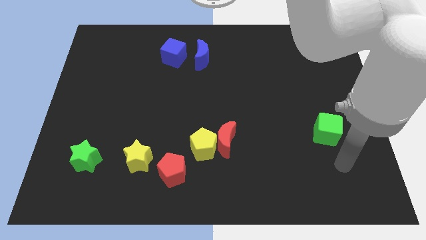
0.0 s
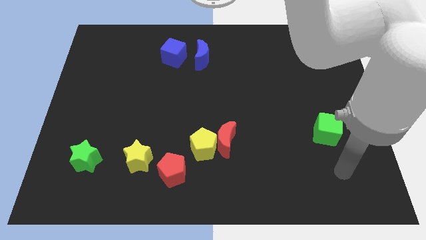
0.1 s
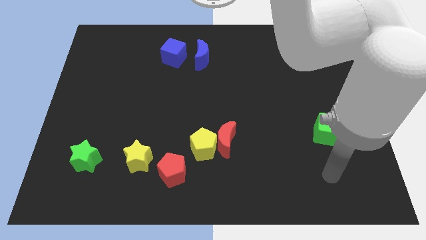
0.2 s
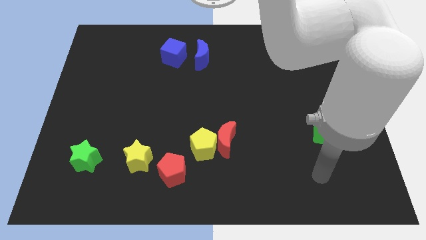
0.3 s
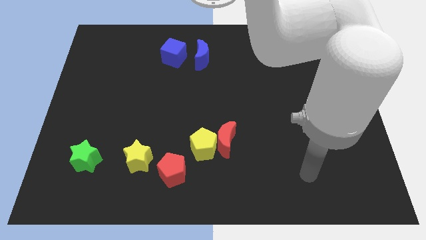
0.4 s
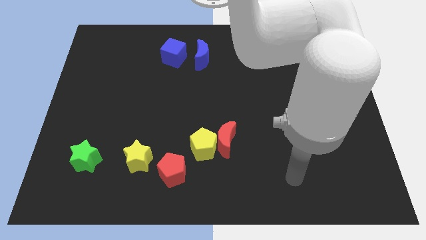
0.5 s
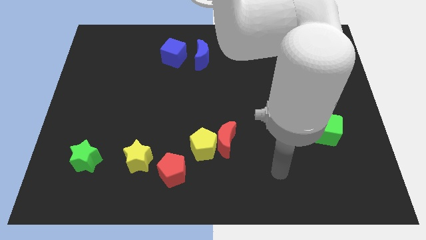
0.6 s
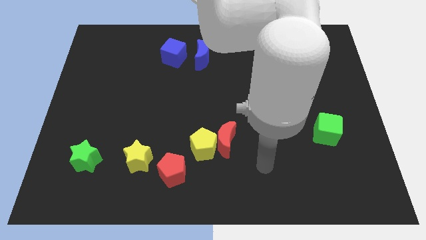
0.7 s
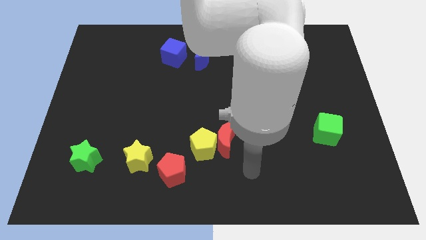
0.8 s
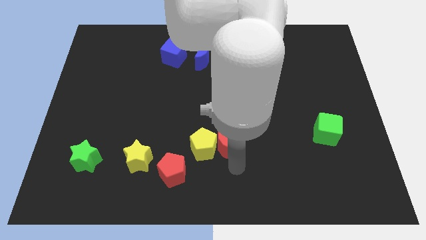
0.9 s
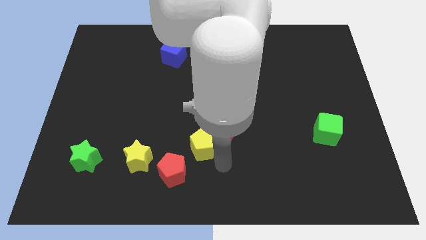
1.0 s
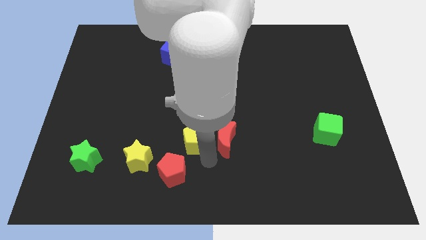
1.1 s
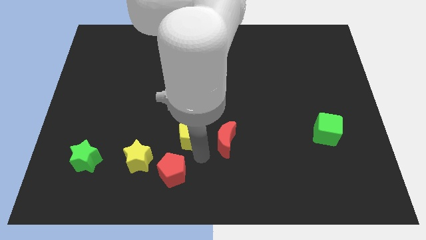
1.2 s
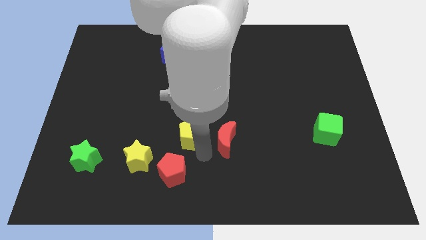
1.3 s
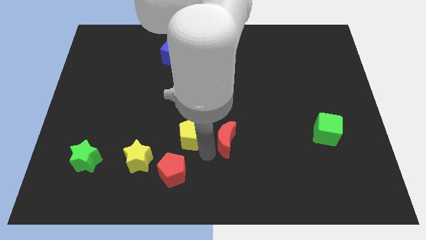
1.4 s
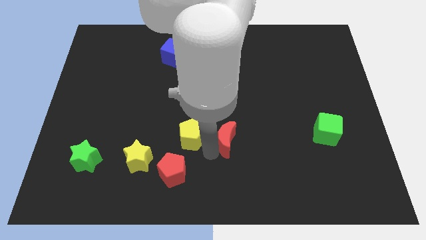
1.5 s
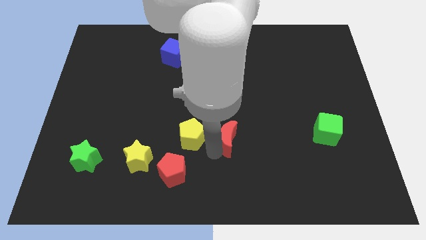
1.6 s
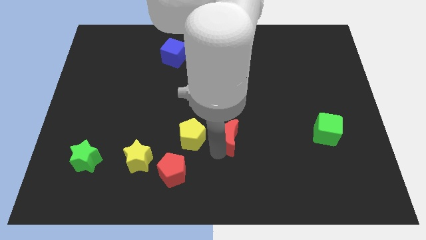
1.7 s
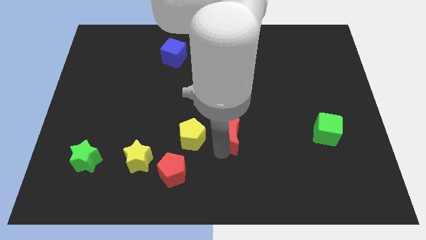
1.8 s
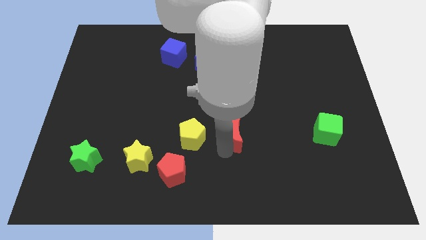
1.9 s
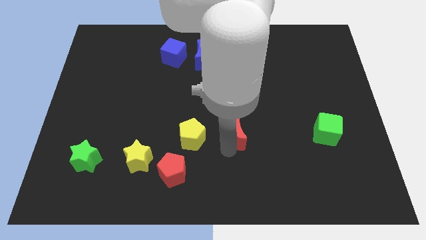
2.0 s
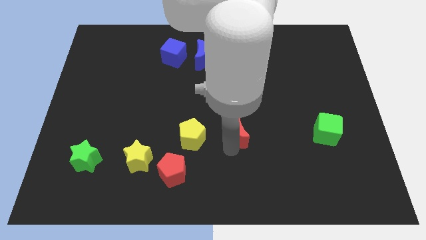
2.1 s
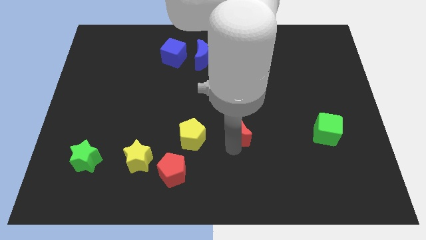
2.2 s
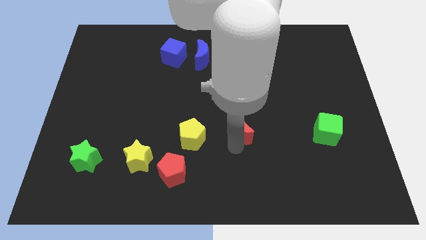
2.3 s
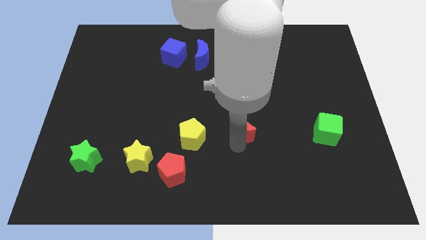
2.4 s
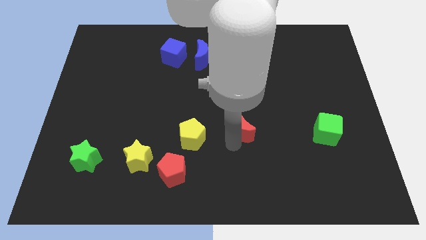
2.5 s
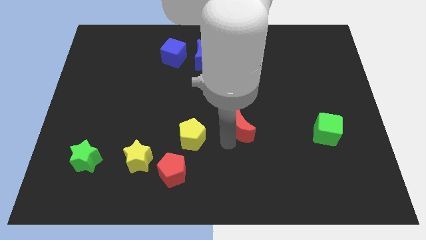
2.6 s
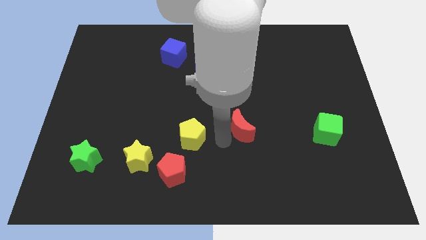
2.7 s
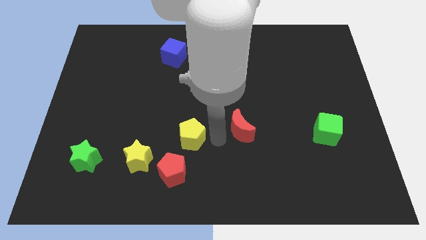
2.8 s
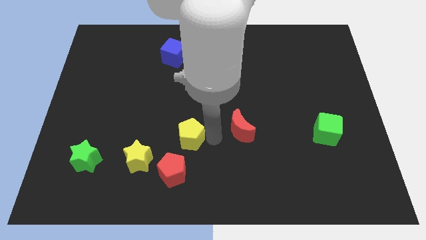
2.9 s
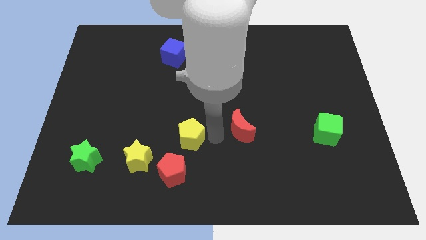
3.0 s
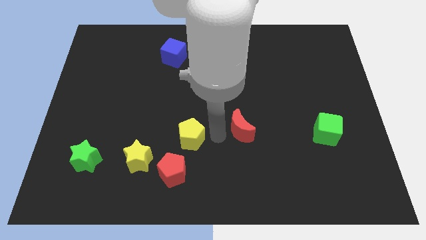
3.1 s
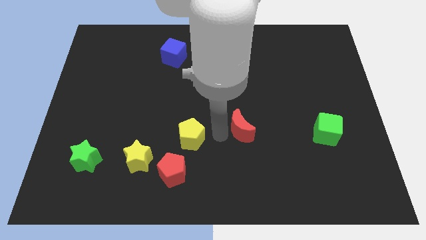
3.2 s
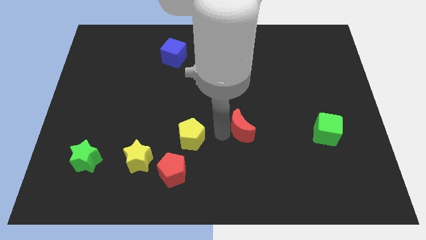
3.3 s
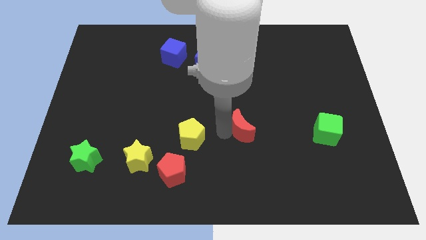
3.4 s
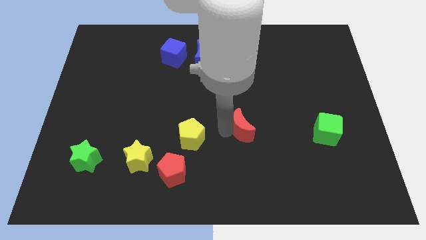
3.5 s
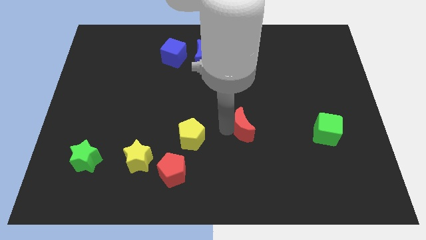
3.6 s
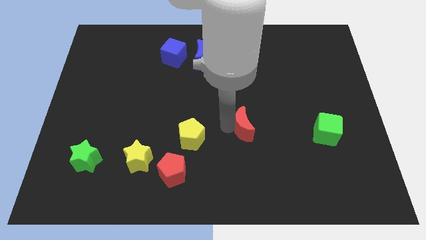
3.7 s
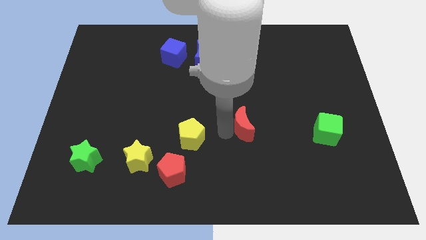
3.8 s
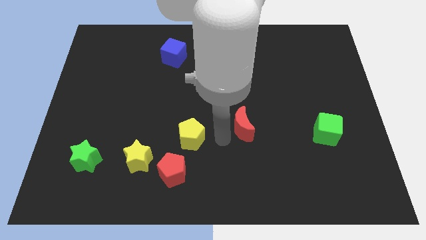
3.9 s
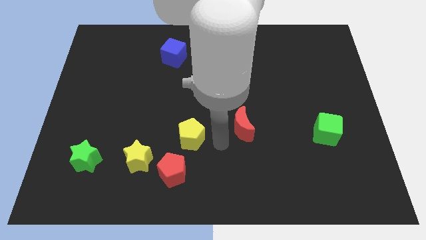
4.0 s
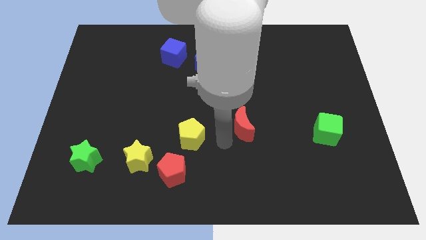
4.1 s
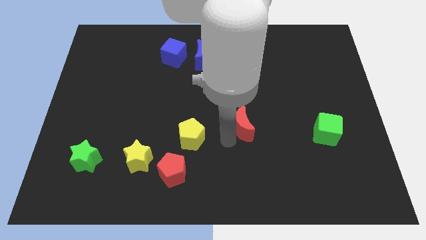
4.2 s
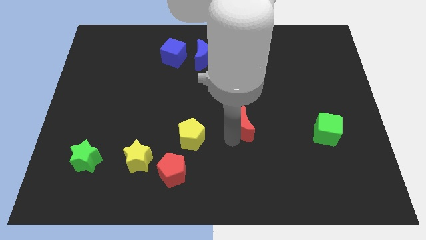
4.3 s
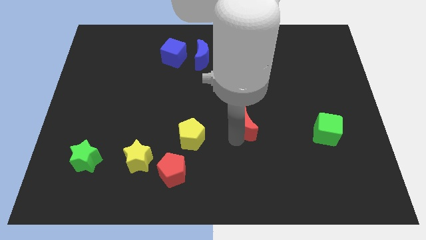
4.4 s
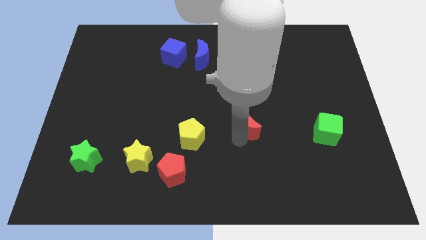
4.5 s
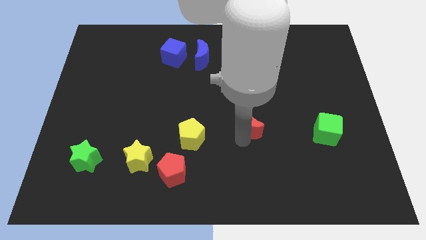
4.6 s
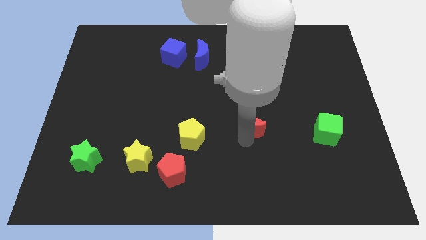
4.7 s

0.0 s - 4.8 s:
push the red moon somewhat diagonally up and right

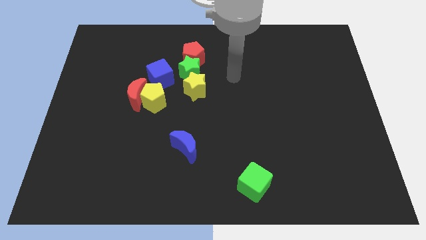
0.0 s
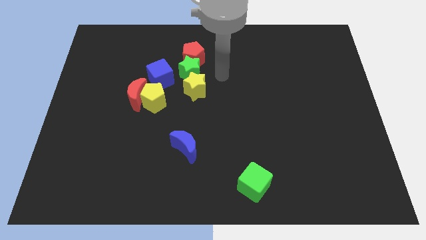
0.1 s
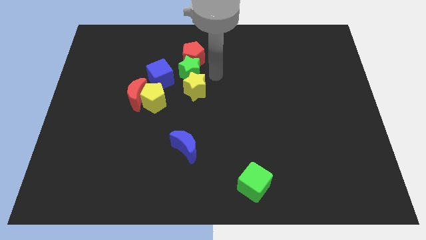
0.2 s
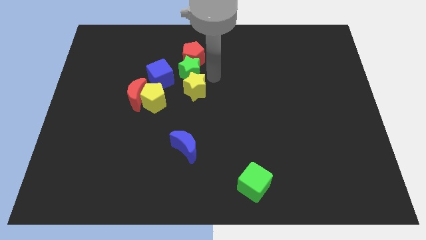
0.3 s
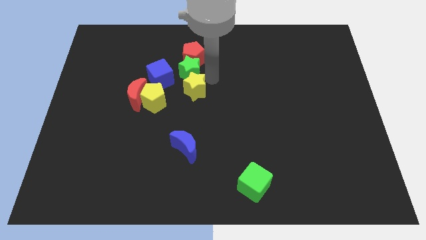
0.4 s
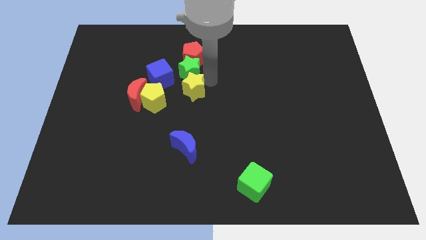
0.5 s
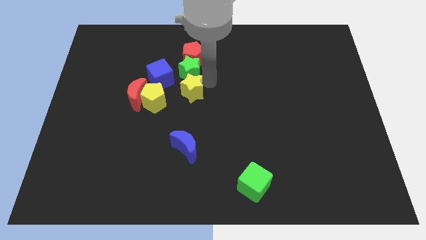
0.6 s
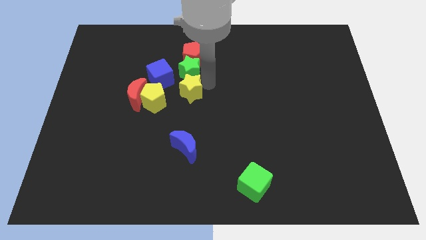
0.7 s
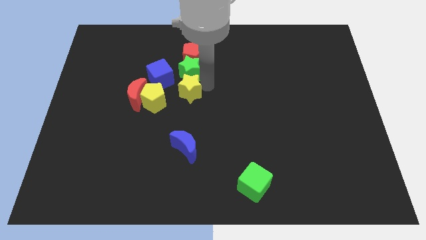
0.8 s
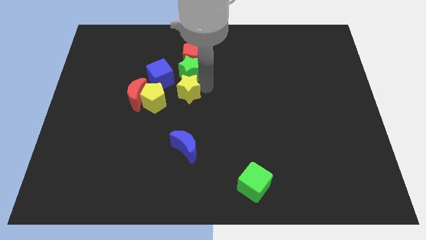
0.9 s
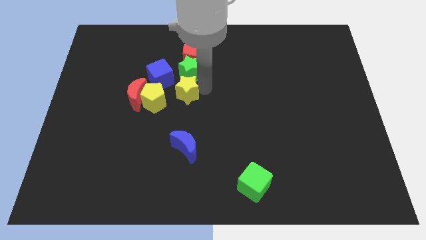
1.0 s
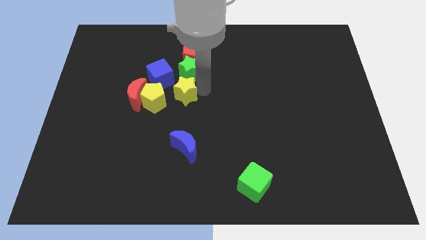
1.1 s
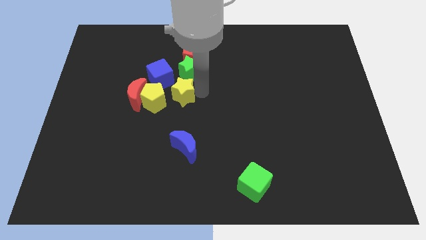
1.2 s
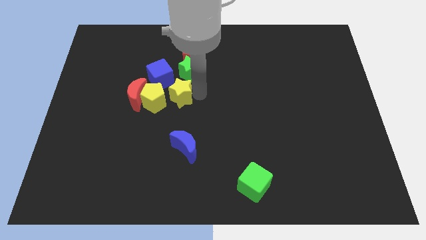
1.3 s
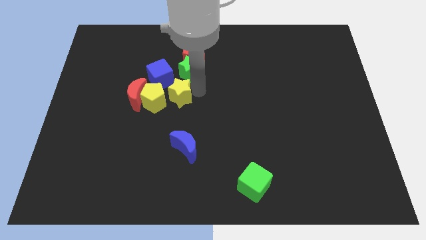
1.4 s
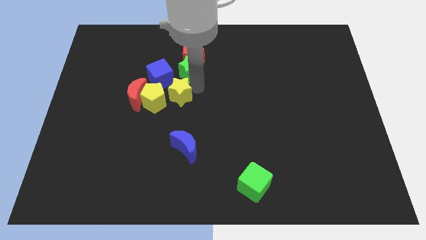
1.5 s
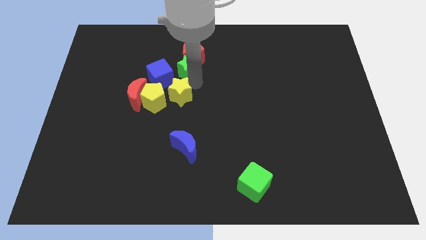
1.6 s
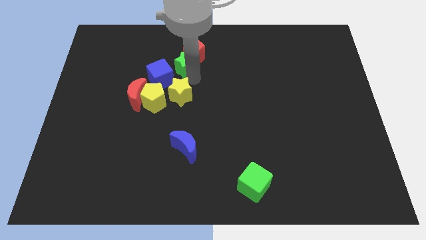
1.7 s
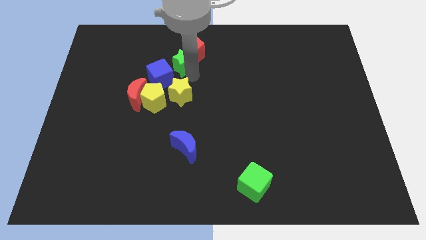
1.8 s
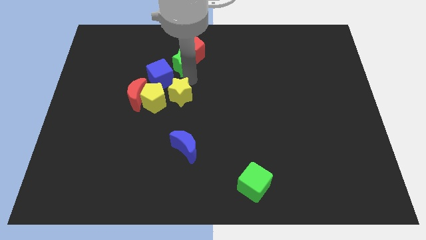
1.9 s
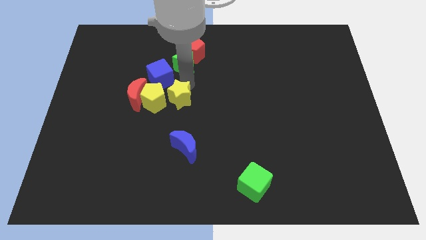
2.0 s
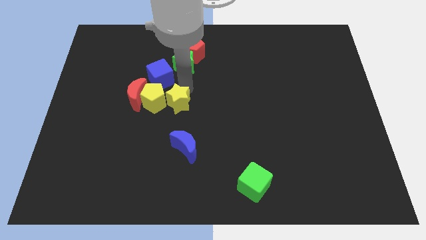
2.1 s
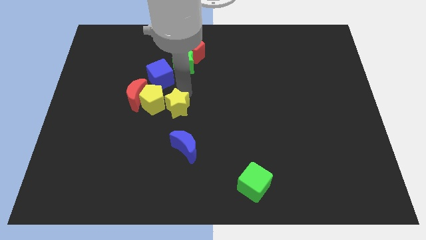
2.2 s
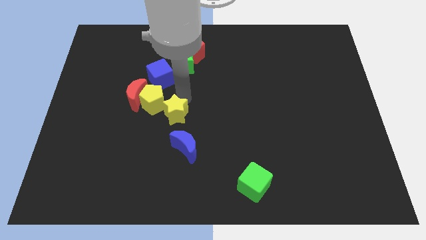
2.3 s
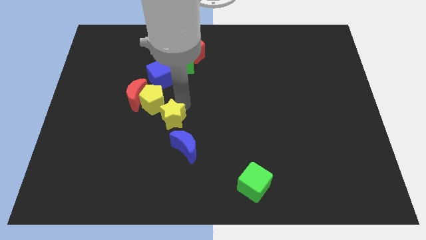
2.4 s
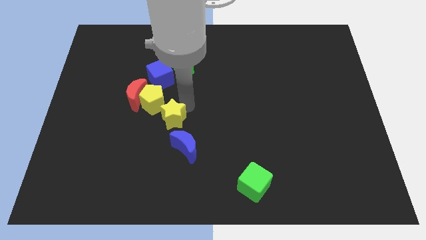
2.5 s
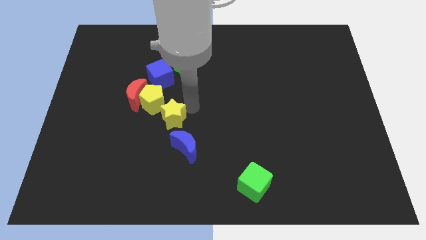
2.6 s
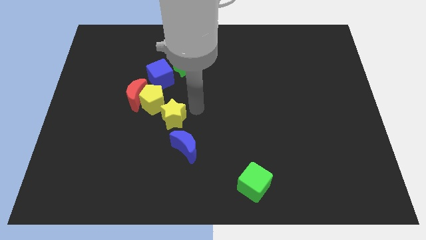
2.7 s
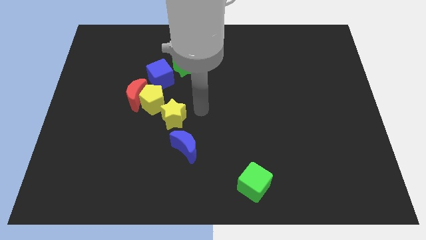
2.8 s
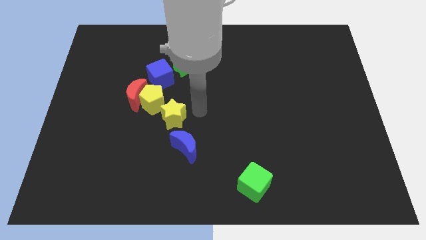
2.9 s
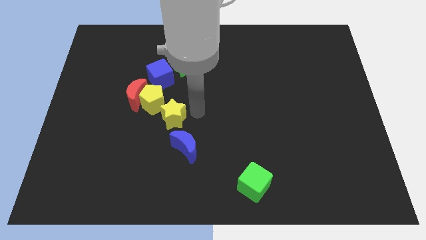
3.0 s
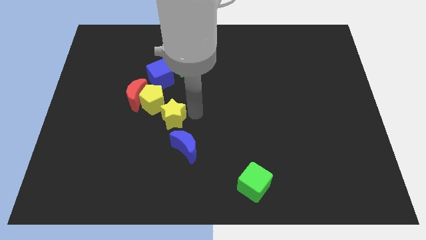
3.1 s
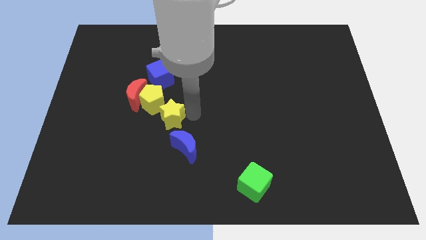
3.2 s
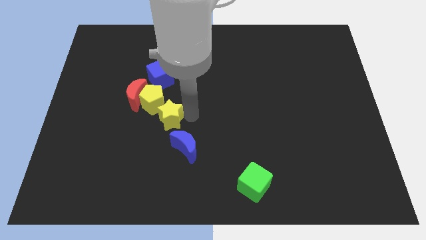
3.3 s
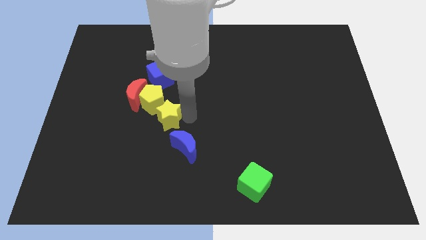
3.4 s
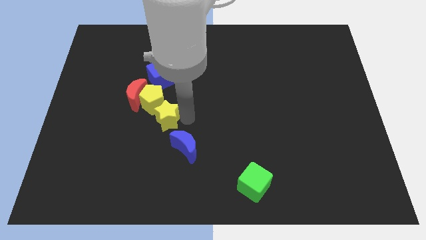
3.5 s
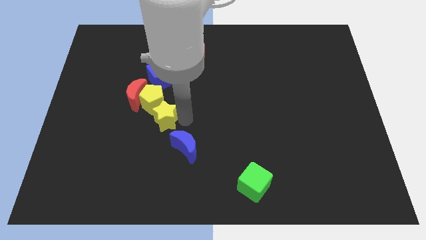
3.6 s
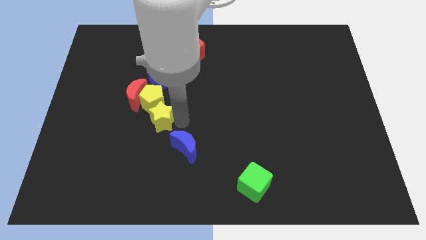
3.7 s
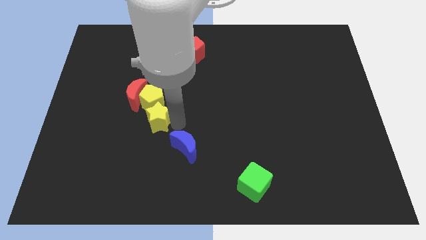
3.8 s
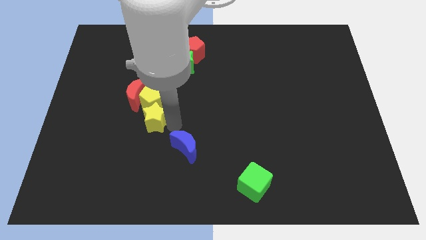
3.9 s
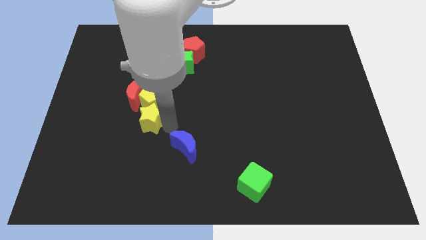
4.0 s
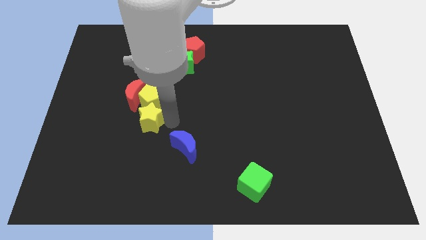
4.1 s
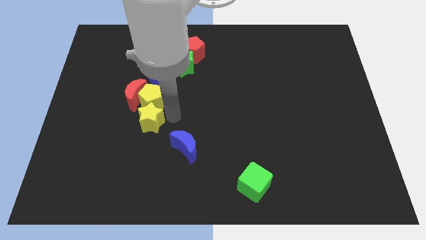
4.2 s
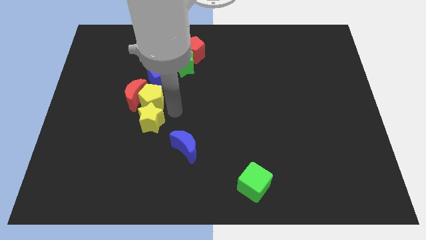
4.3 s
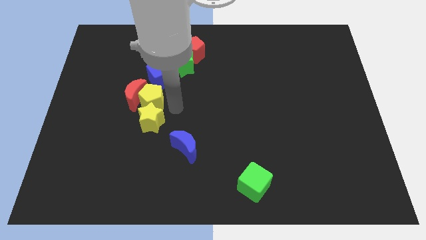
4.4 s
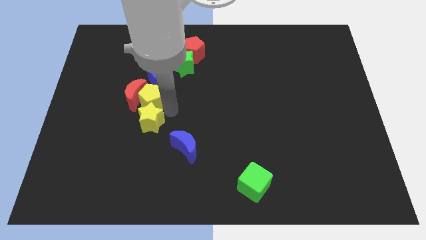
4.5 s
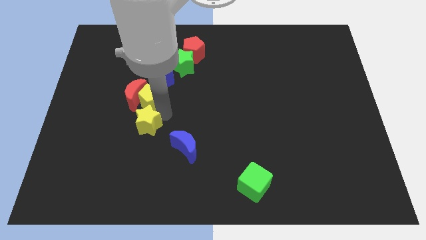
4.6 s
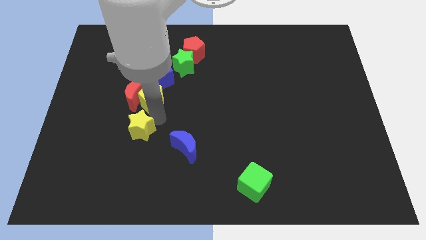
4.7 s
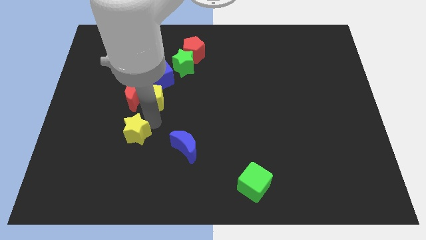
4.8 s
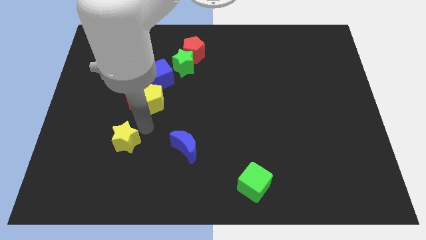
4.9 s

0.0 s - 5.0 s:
move the yellow star down and left diagonally
